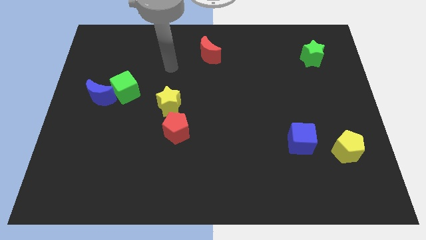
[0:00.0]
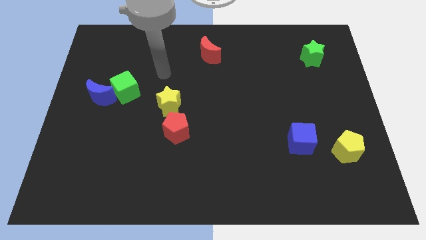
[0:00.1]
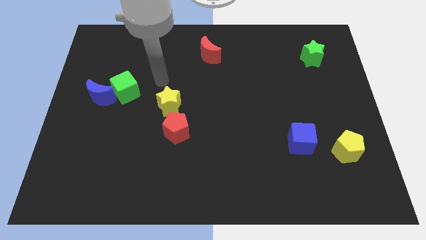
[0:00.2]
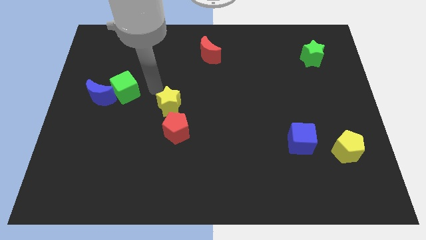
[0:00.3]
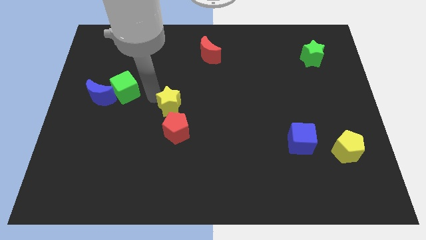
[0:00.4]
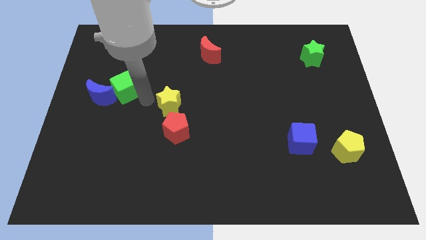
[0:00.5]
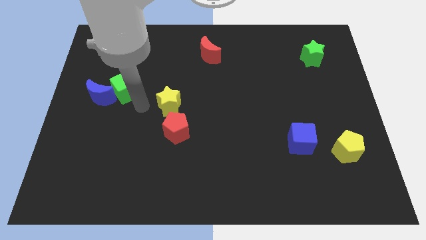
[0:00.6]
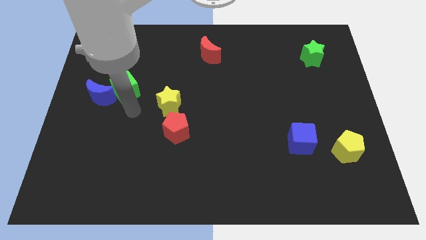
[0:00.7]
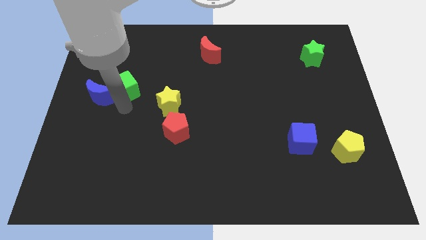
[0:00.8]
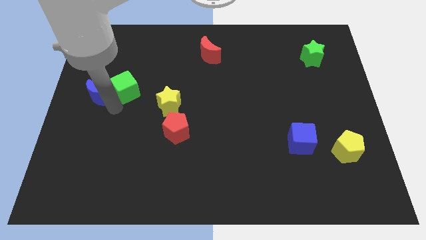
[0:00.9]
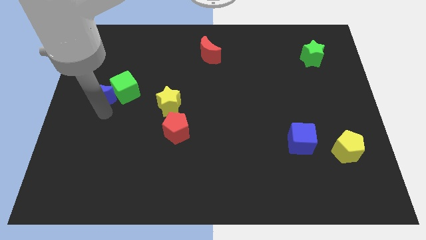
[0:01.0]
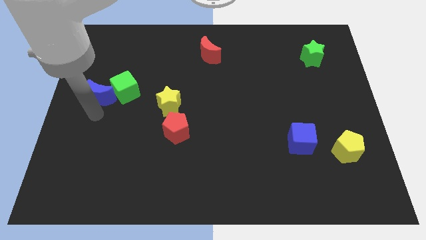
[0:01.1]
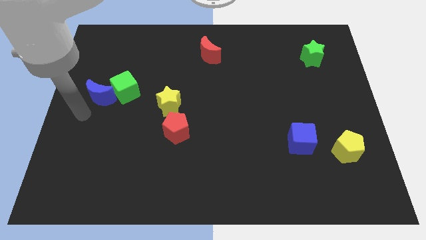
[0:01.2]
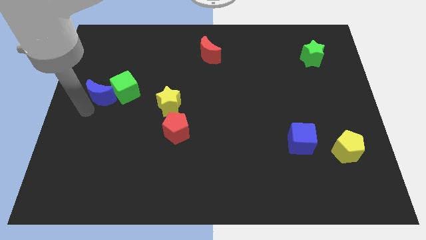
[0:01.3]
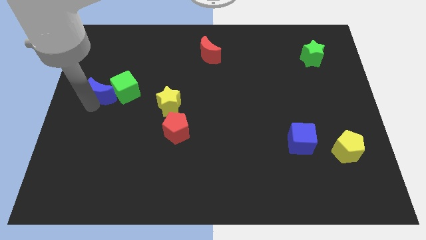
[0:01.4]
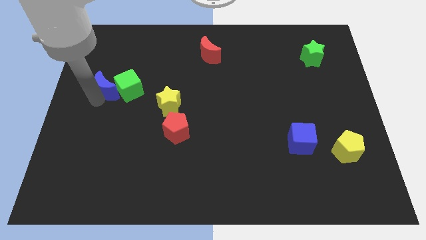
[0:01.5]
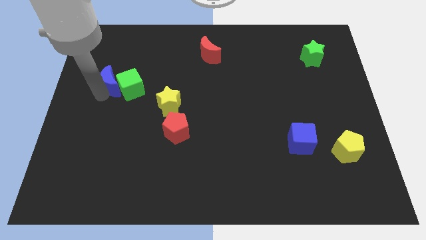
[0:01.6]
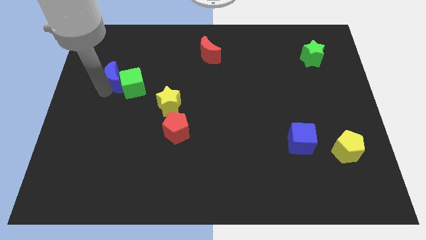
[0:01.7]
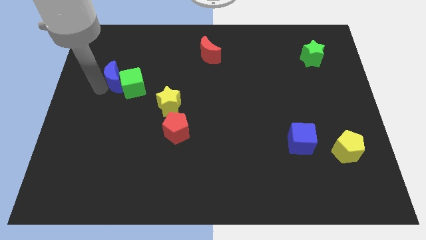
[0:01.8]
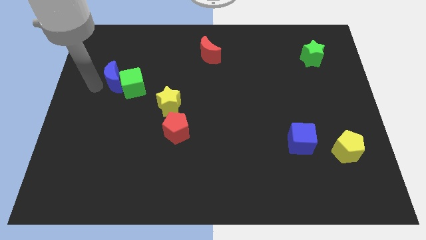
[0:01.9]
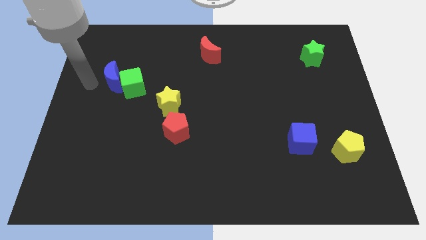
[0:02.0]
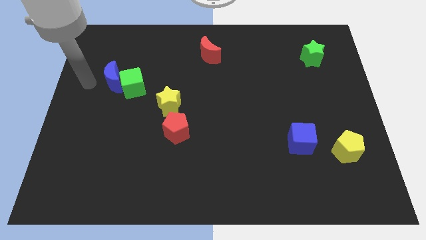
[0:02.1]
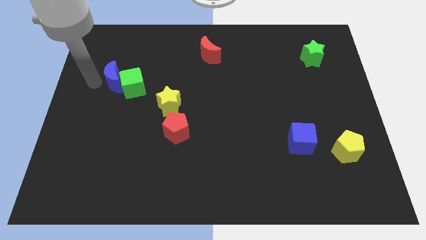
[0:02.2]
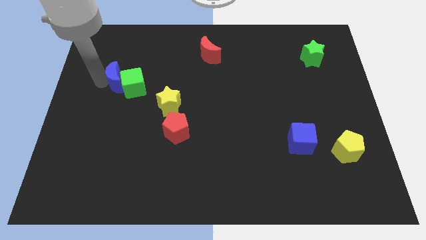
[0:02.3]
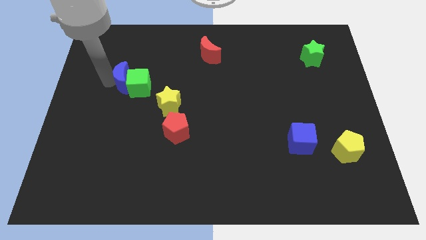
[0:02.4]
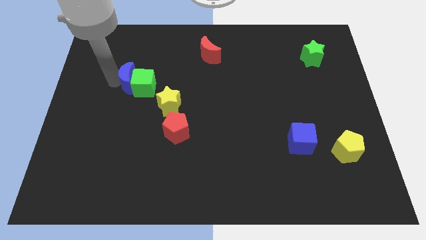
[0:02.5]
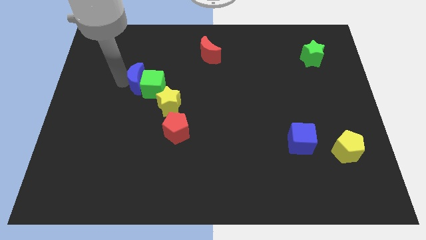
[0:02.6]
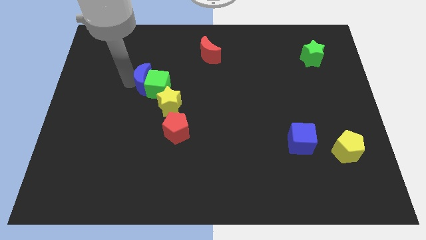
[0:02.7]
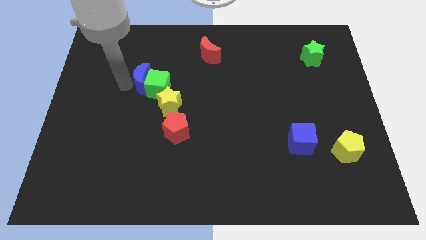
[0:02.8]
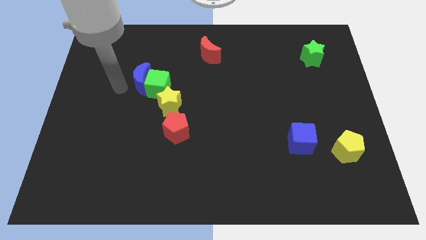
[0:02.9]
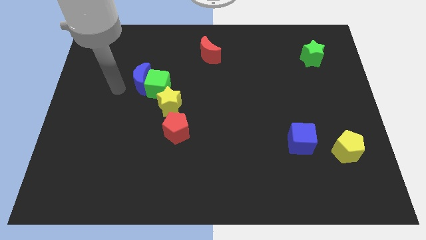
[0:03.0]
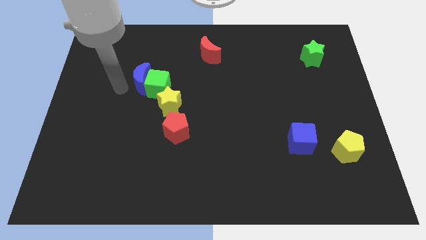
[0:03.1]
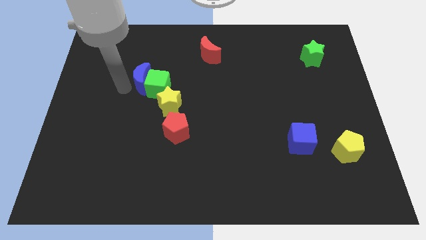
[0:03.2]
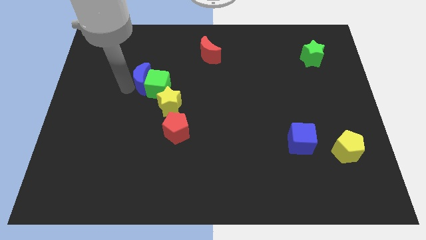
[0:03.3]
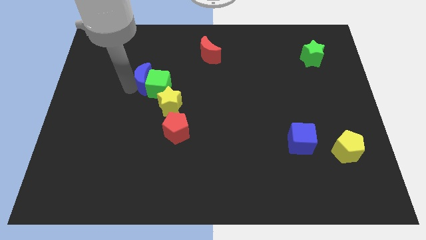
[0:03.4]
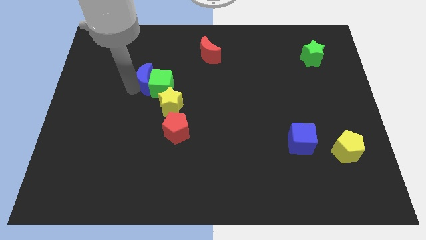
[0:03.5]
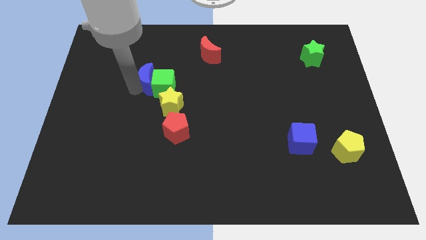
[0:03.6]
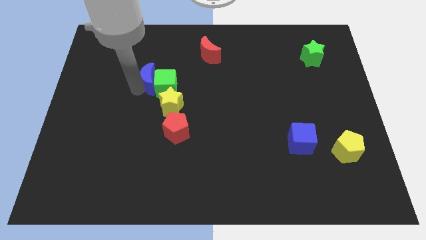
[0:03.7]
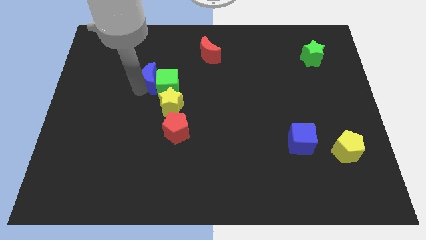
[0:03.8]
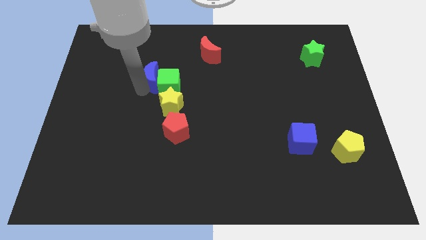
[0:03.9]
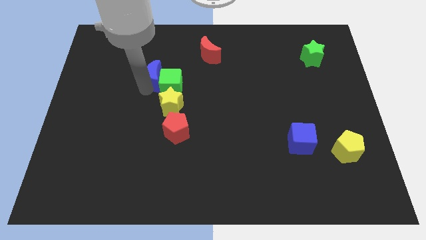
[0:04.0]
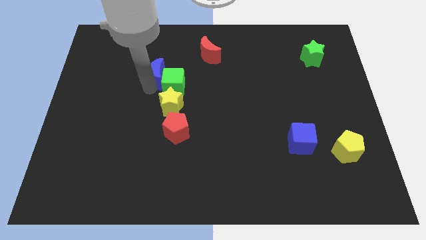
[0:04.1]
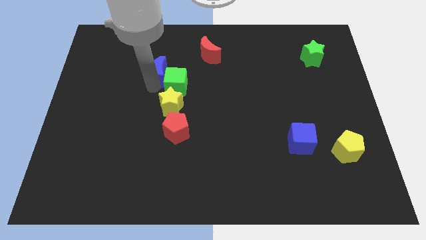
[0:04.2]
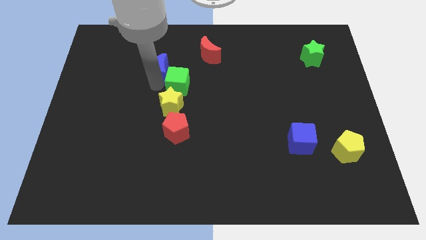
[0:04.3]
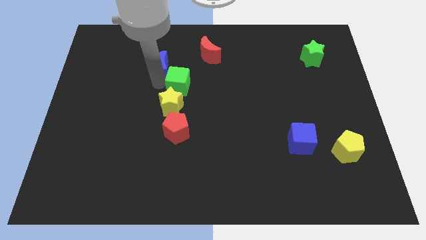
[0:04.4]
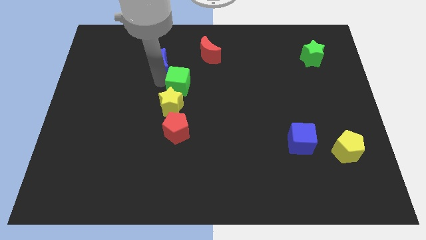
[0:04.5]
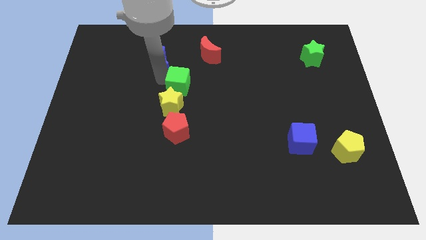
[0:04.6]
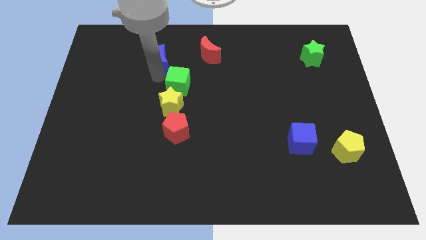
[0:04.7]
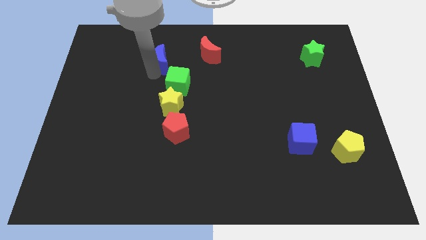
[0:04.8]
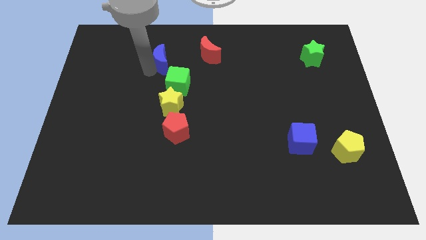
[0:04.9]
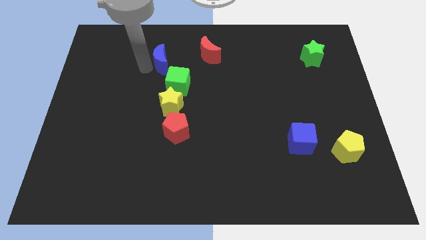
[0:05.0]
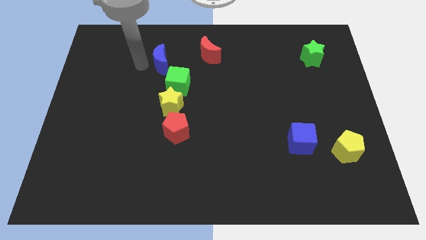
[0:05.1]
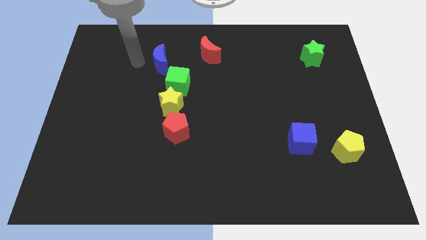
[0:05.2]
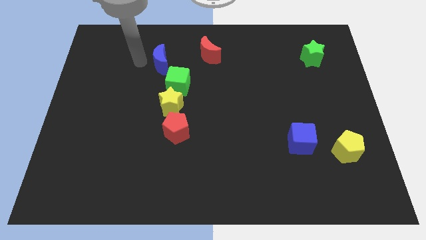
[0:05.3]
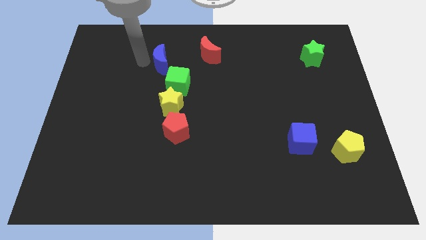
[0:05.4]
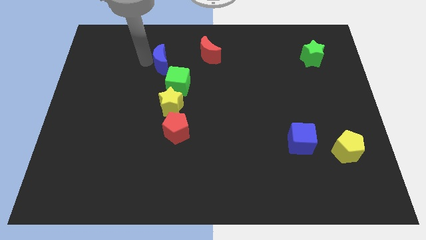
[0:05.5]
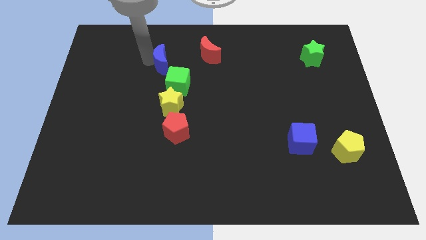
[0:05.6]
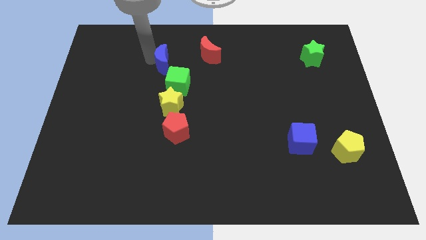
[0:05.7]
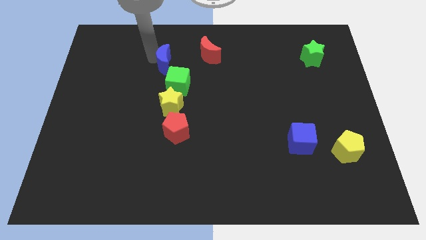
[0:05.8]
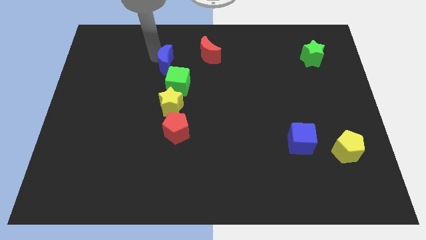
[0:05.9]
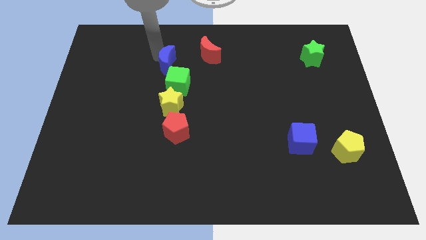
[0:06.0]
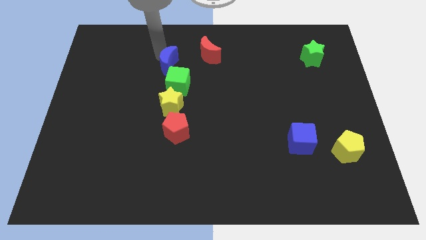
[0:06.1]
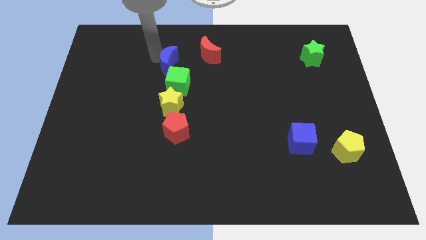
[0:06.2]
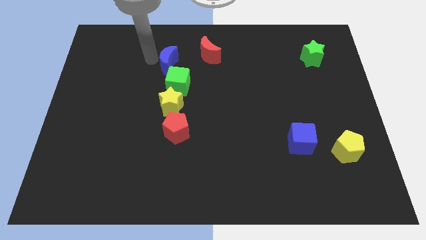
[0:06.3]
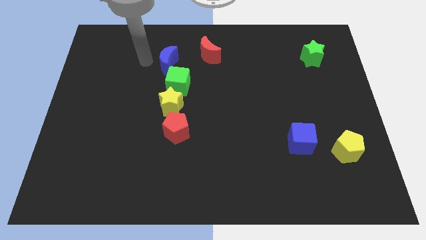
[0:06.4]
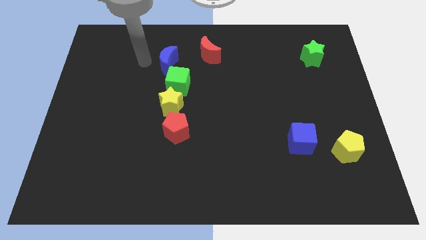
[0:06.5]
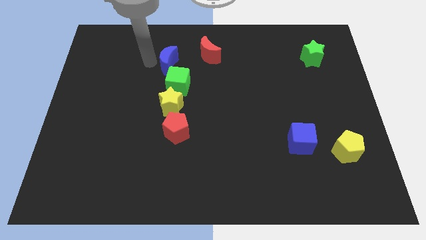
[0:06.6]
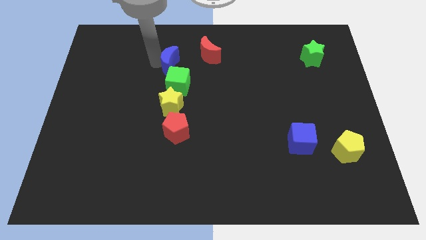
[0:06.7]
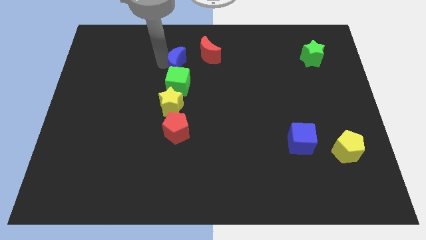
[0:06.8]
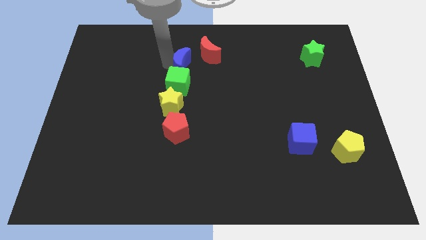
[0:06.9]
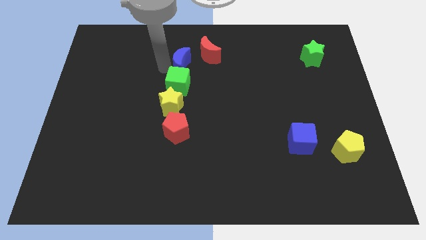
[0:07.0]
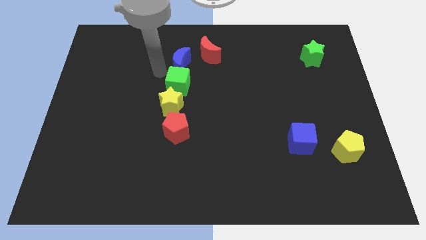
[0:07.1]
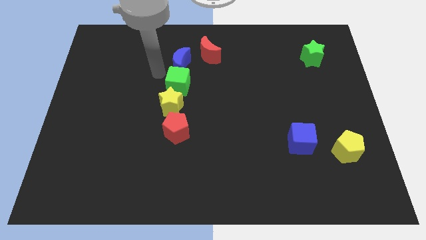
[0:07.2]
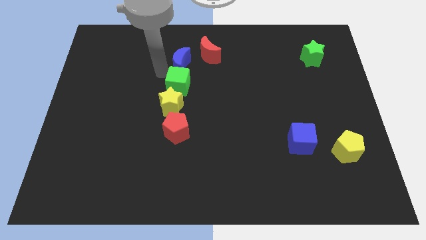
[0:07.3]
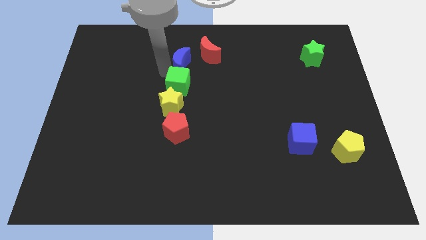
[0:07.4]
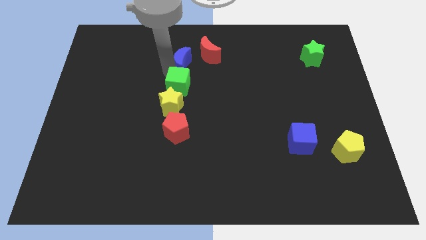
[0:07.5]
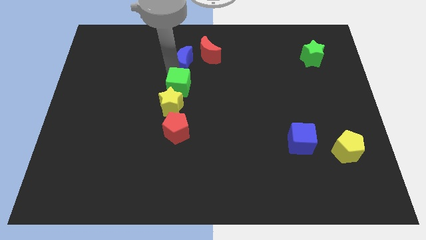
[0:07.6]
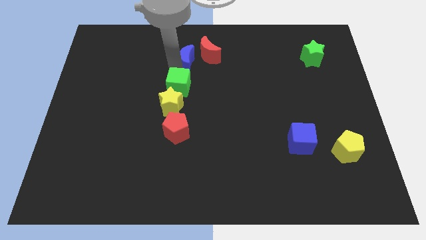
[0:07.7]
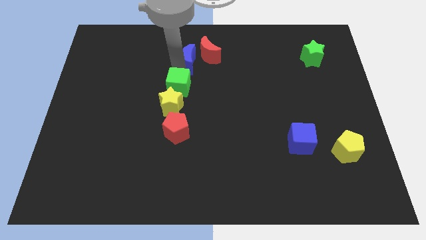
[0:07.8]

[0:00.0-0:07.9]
slide the blue moon next to the red moon
